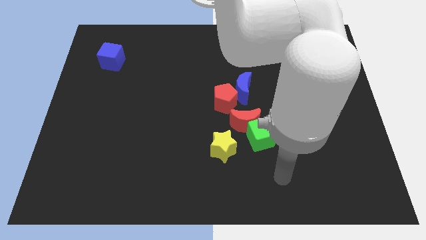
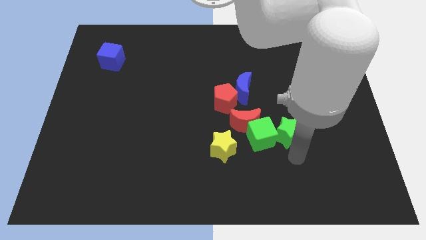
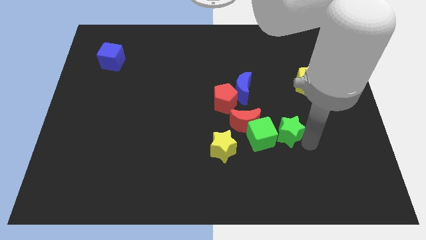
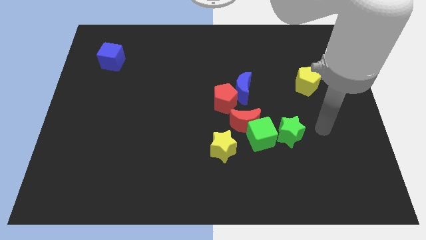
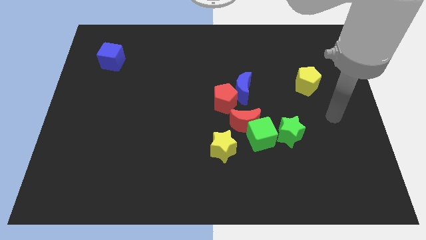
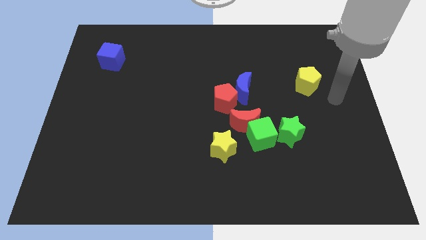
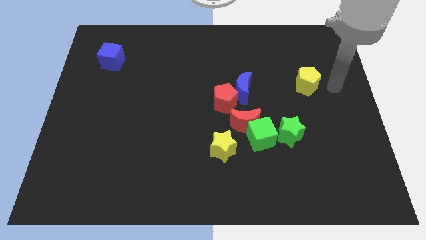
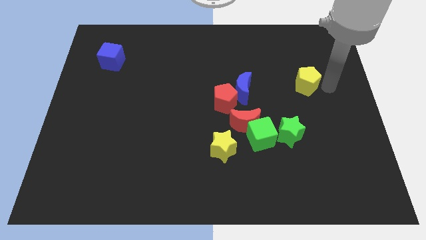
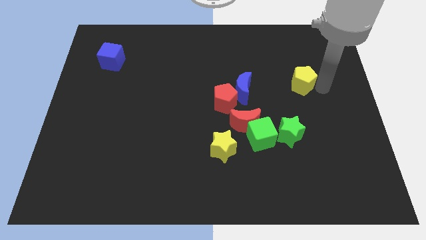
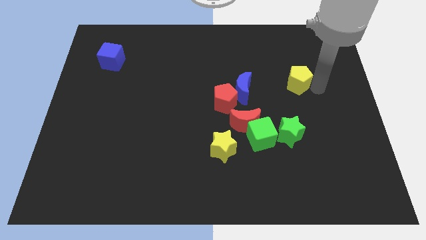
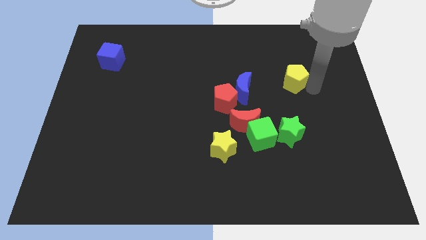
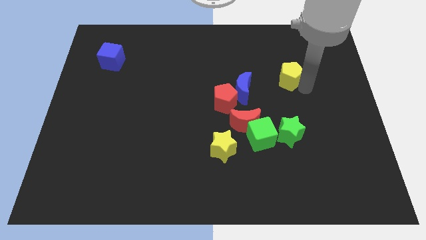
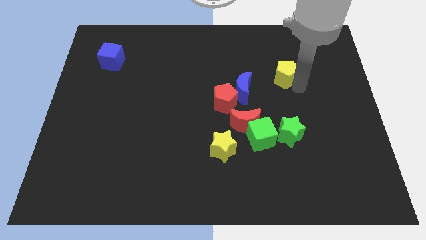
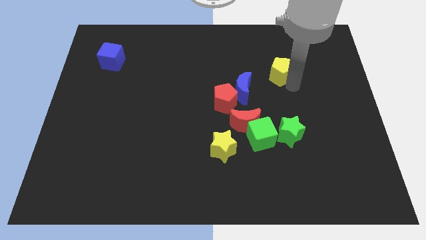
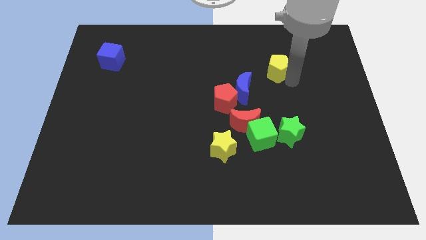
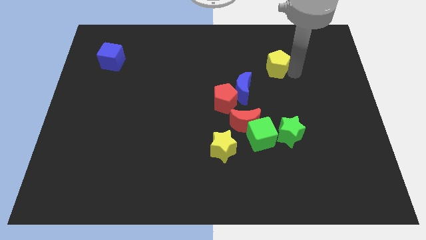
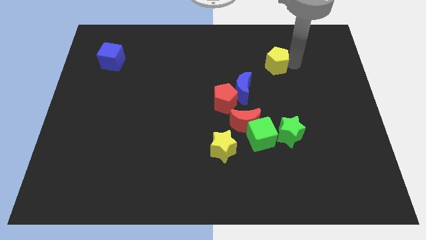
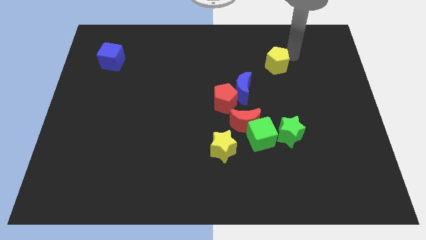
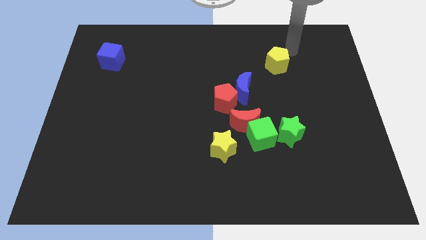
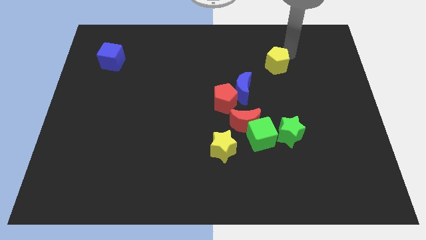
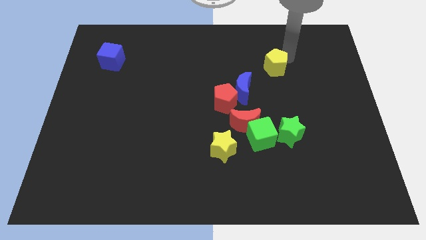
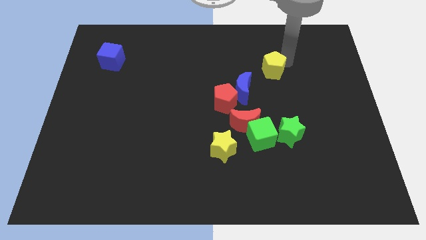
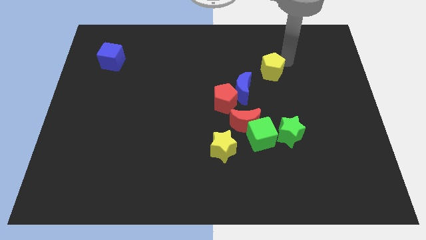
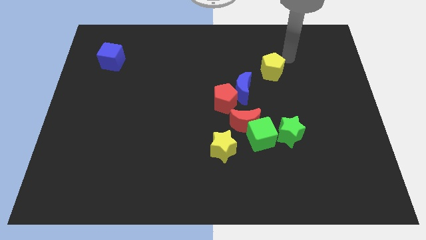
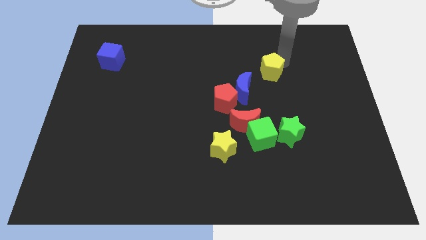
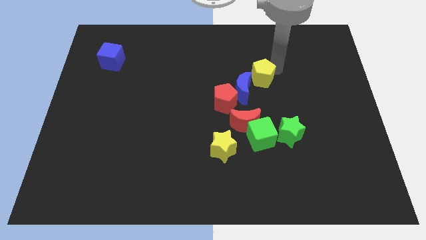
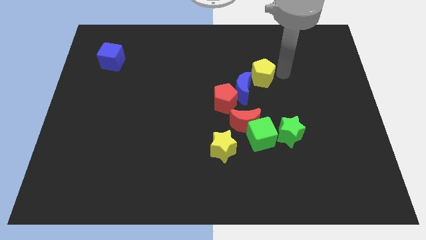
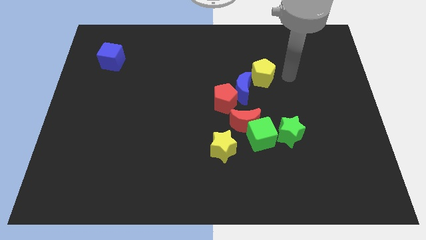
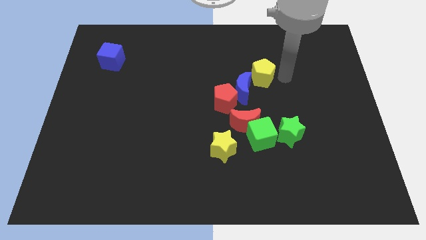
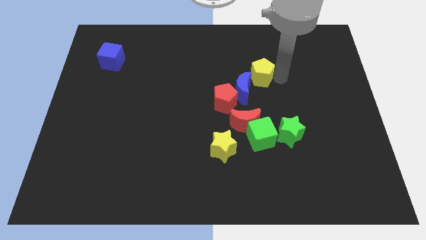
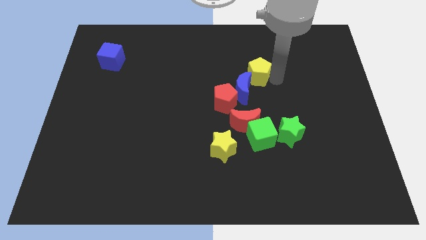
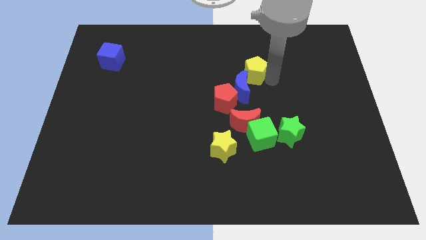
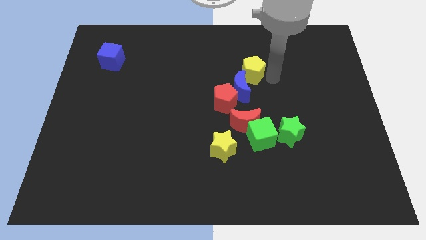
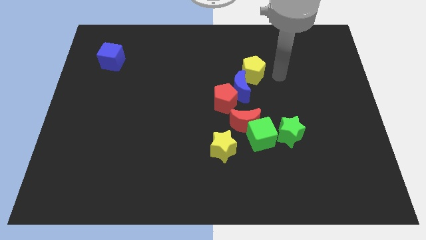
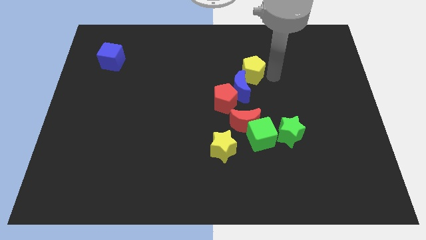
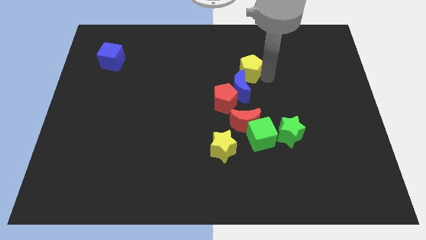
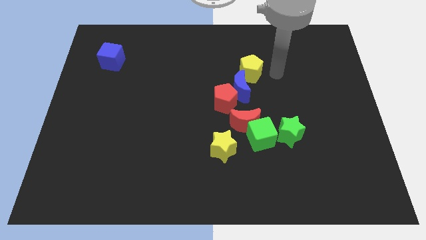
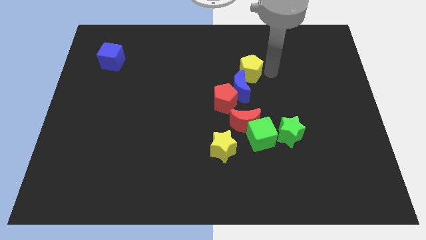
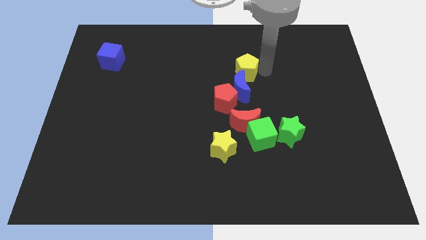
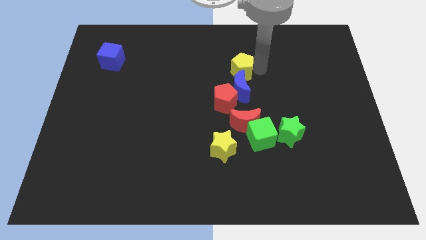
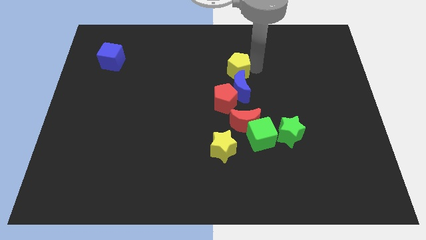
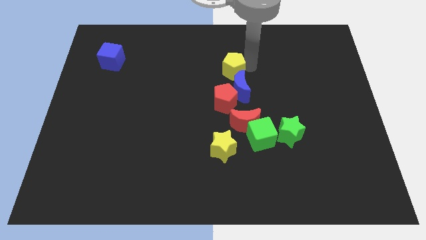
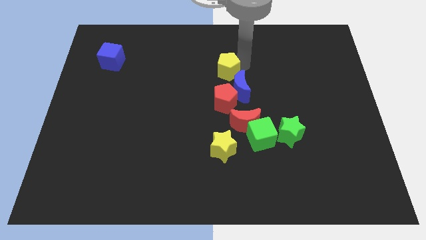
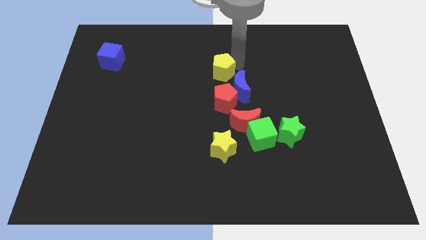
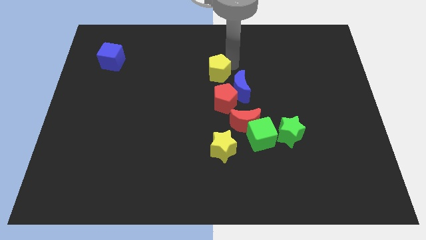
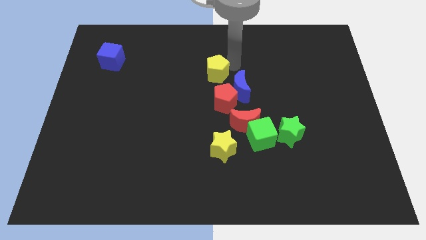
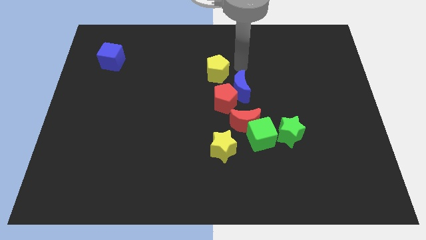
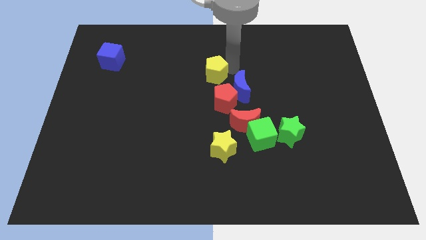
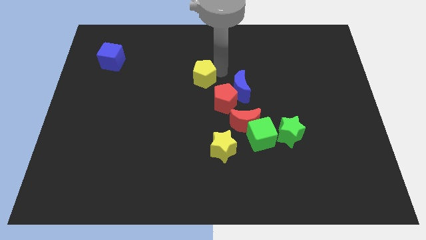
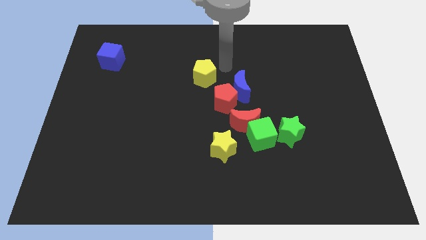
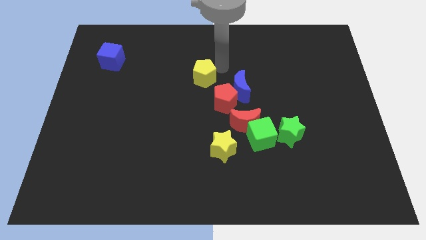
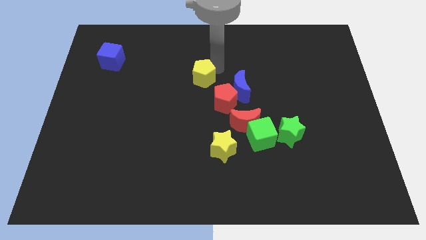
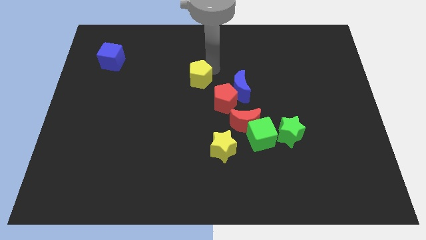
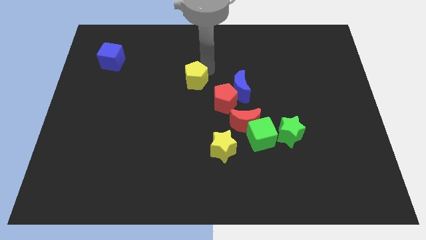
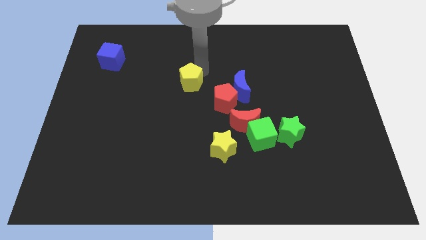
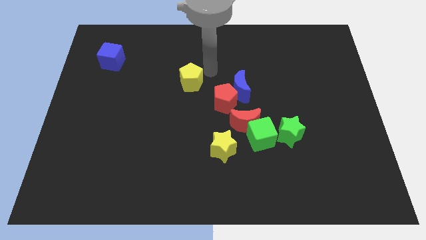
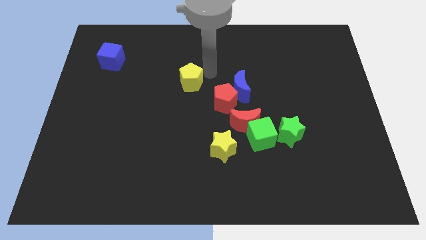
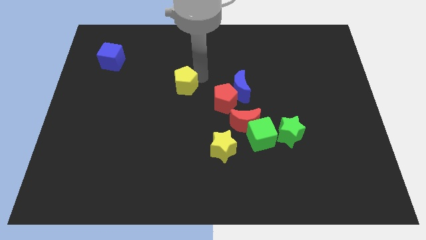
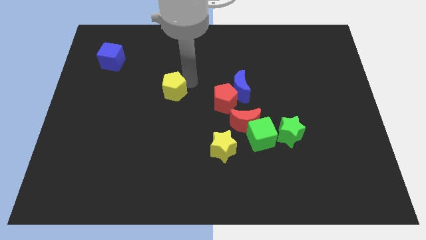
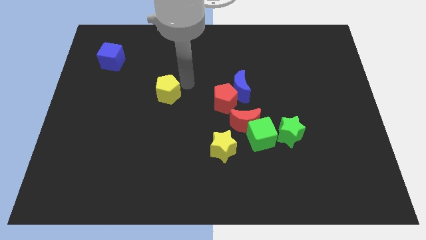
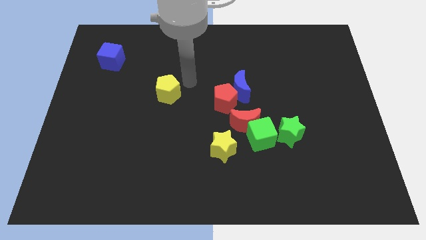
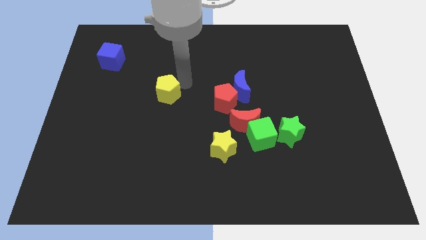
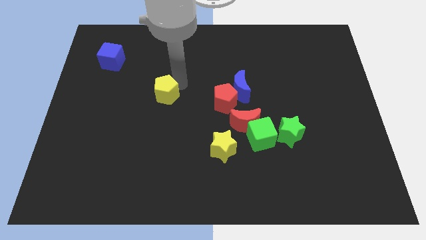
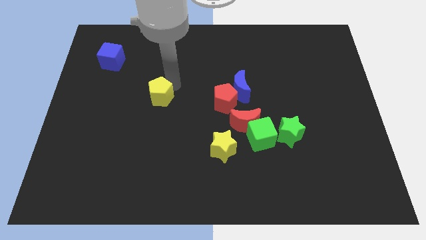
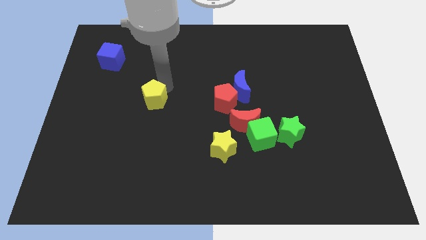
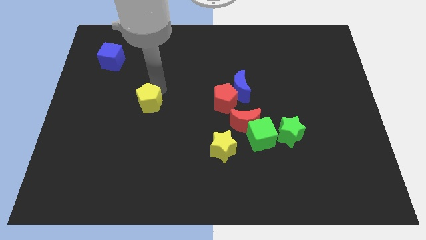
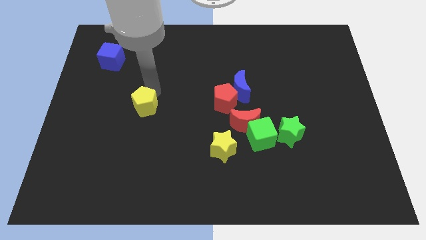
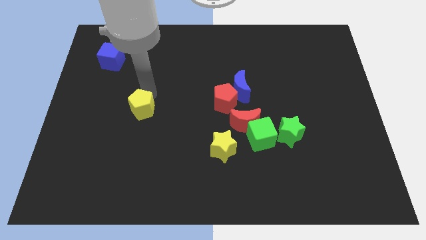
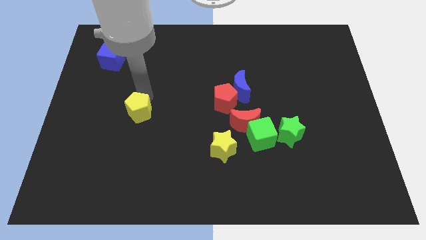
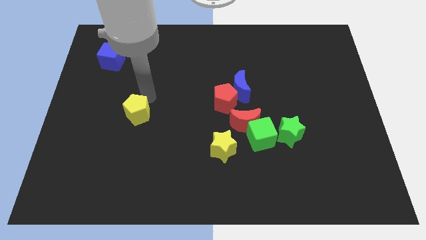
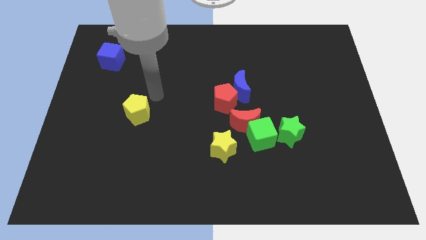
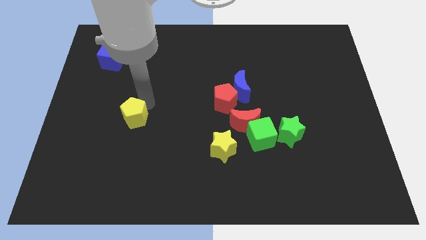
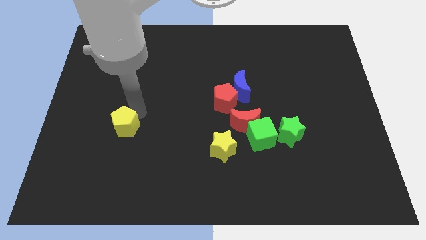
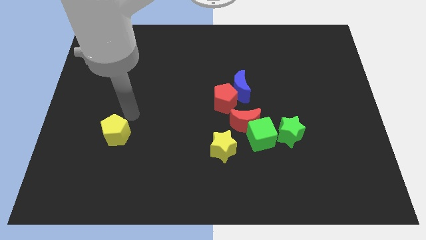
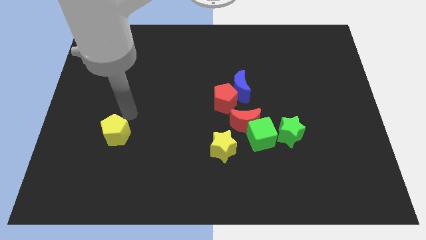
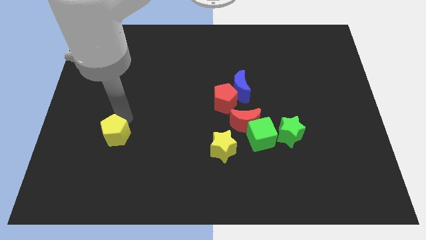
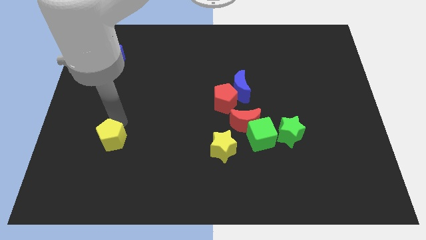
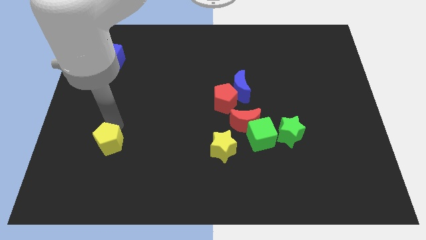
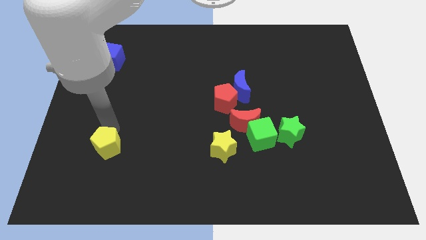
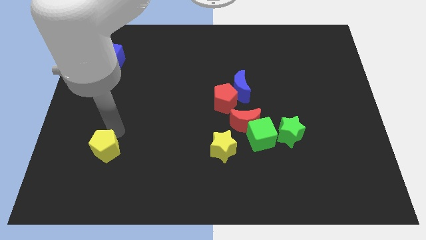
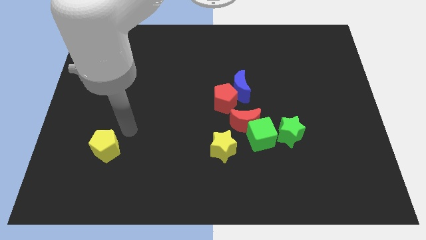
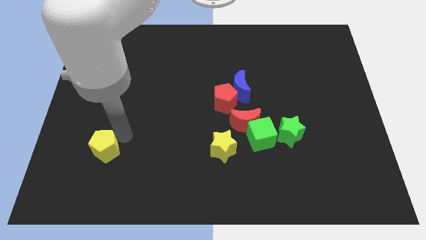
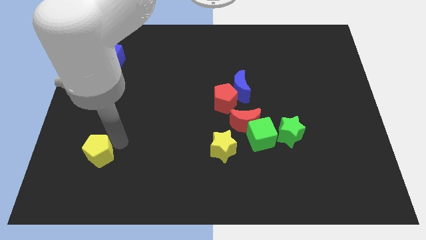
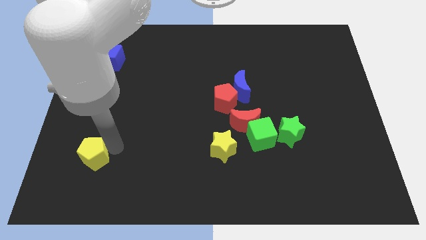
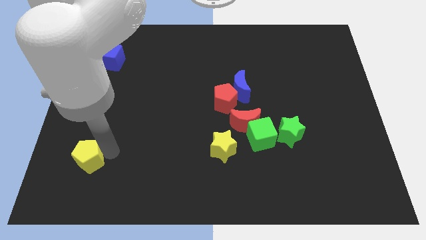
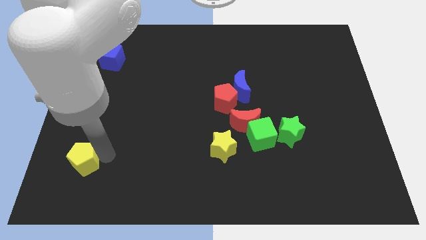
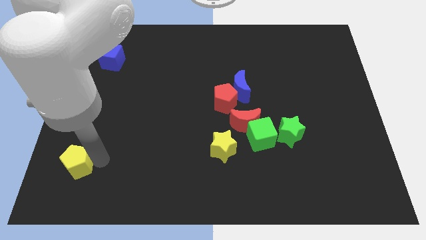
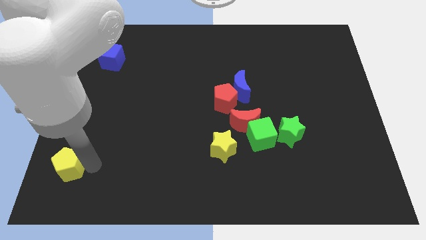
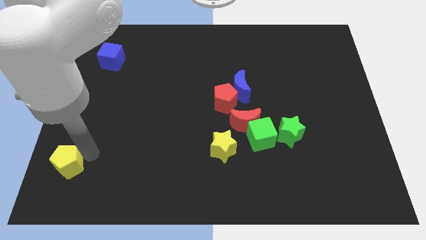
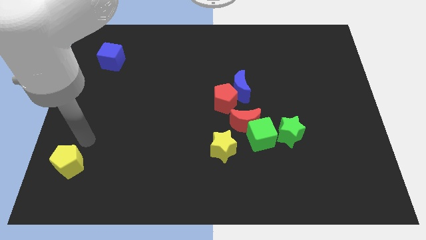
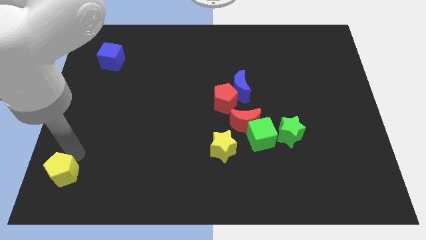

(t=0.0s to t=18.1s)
slide the yellow pentagon to the lower left corner
